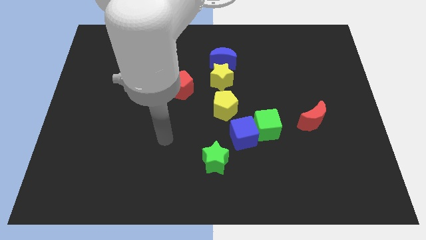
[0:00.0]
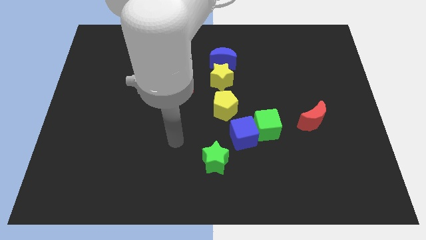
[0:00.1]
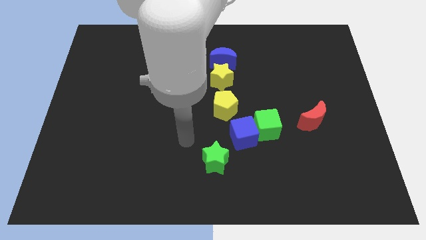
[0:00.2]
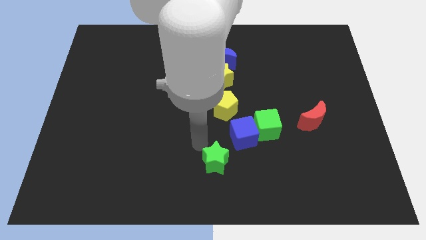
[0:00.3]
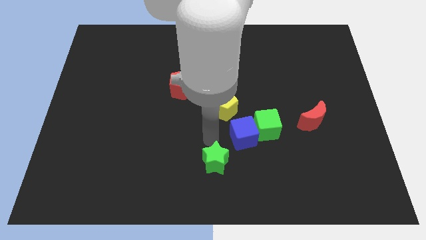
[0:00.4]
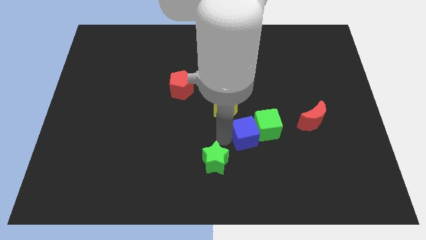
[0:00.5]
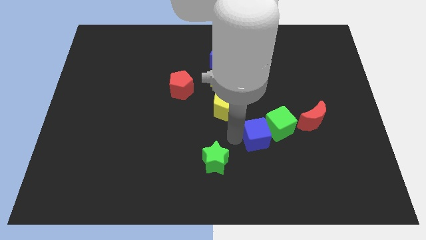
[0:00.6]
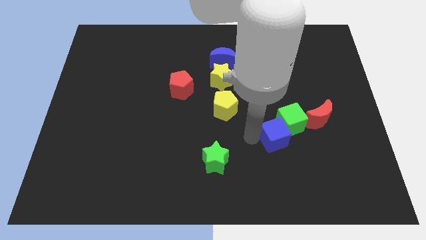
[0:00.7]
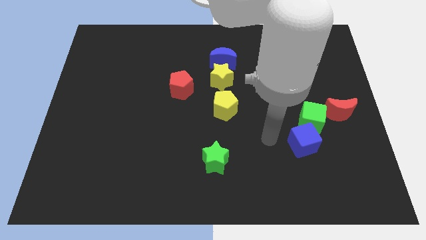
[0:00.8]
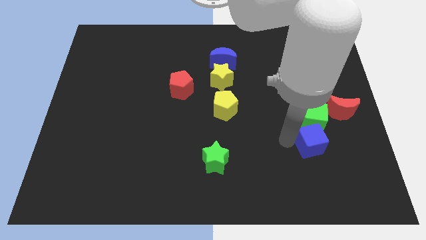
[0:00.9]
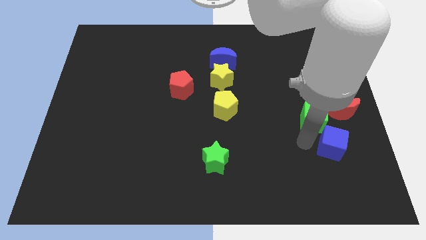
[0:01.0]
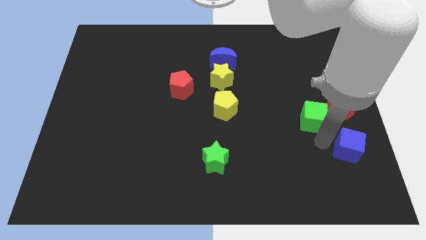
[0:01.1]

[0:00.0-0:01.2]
pull the green cube apart from the blue cube

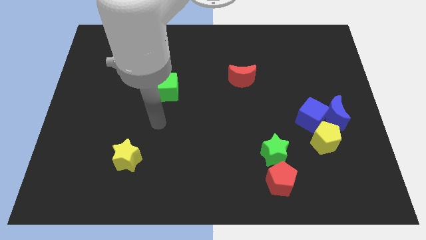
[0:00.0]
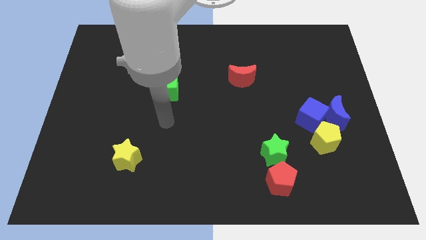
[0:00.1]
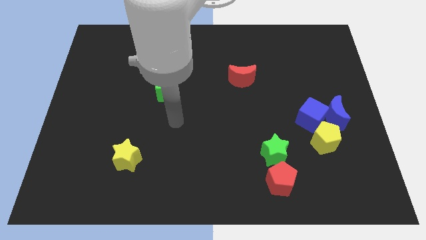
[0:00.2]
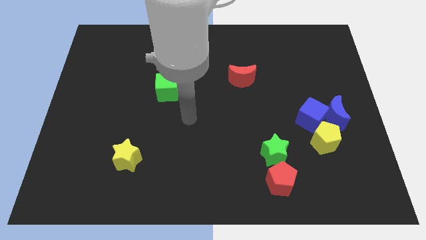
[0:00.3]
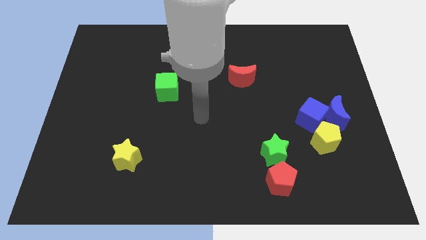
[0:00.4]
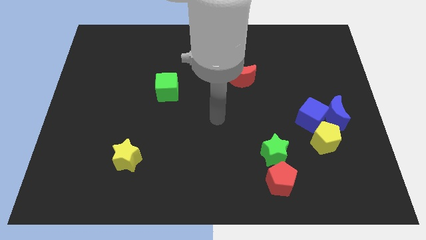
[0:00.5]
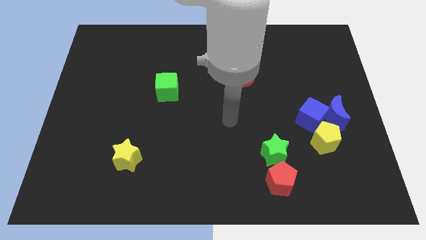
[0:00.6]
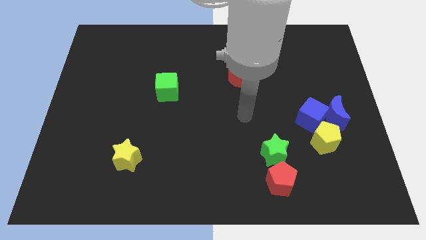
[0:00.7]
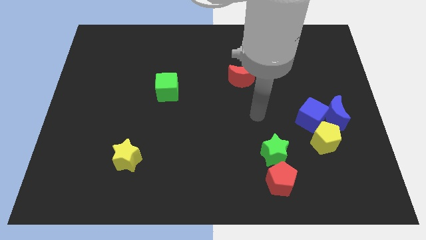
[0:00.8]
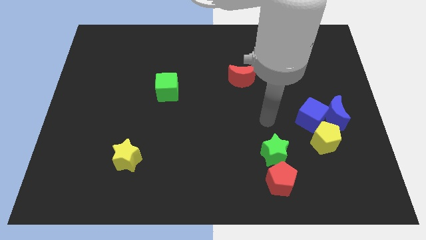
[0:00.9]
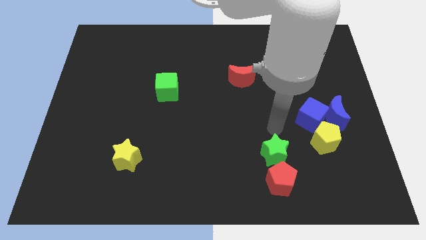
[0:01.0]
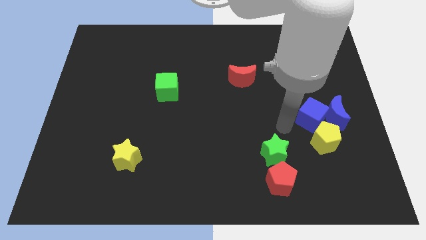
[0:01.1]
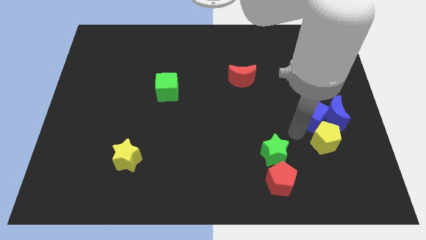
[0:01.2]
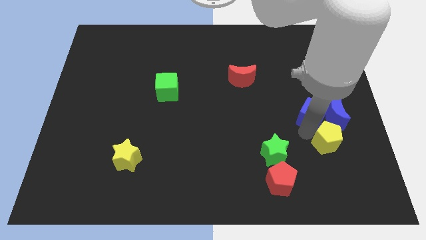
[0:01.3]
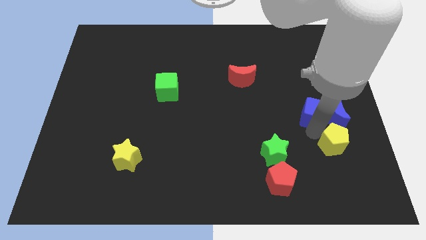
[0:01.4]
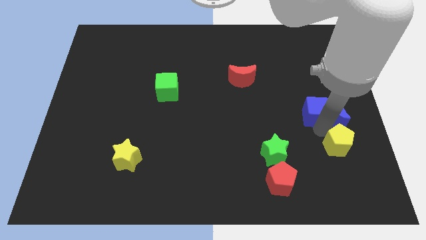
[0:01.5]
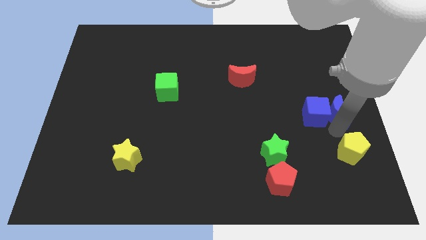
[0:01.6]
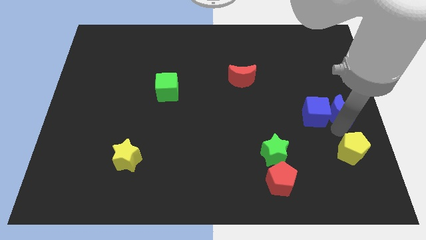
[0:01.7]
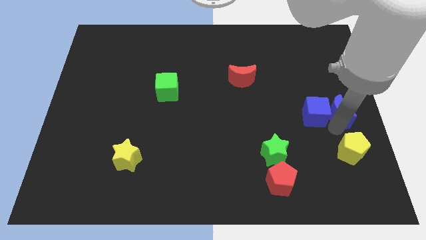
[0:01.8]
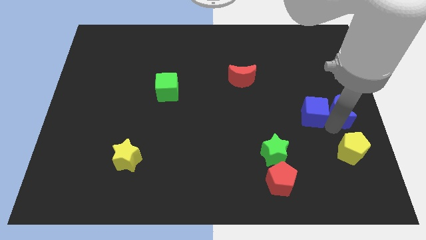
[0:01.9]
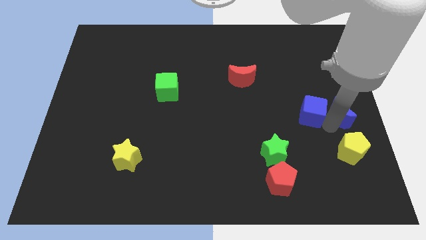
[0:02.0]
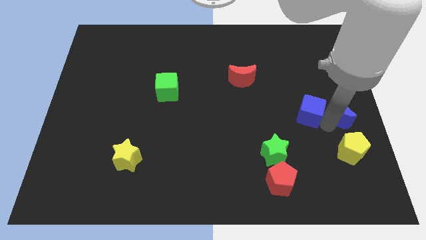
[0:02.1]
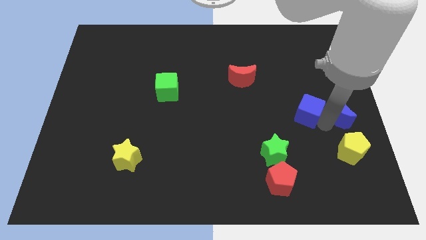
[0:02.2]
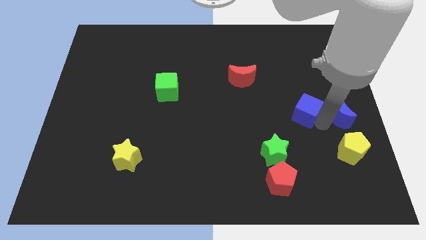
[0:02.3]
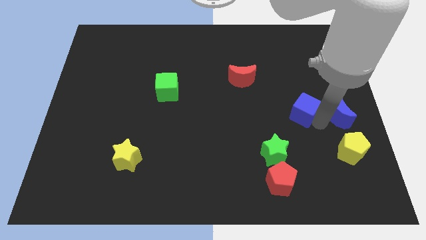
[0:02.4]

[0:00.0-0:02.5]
separate the blue cube from the blue moon and yellow pentagon

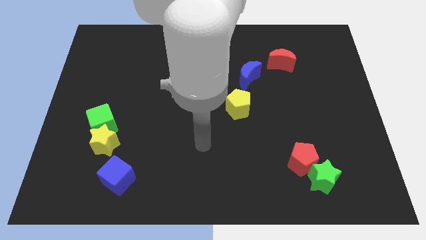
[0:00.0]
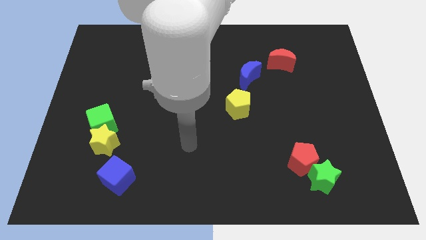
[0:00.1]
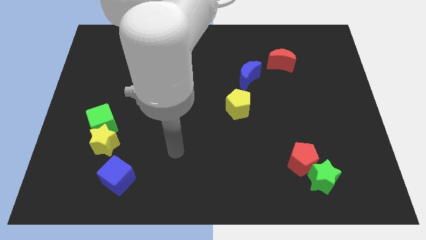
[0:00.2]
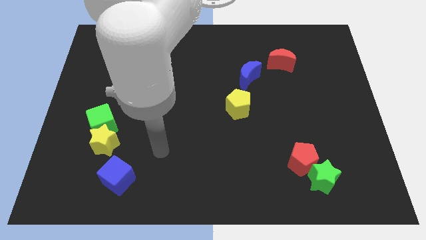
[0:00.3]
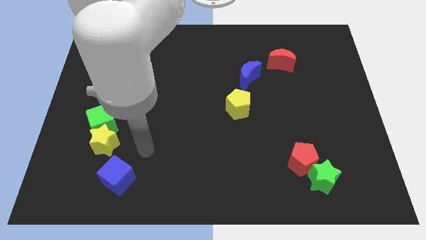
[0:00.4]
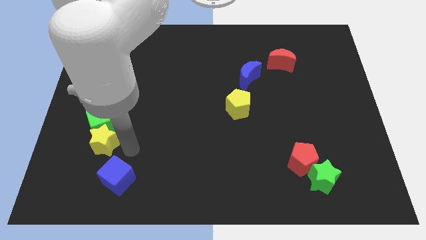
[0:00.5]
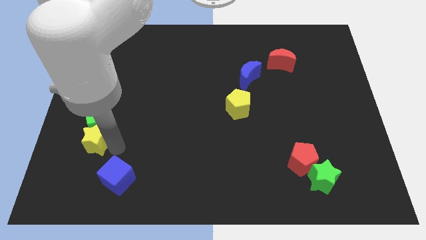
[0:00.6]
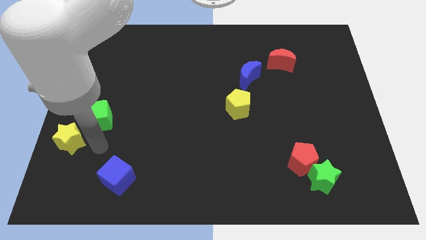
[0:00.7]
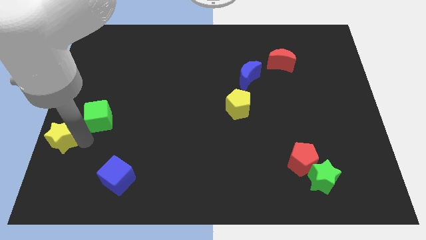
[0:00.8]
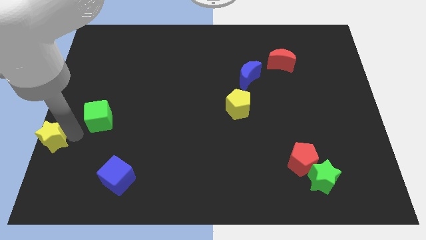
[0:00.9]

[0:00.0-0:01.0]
separate the green cube from the yellow star

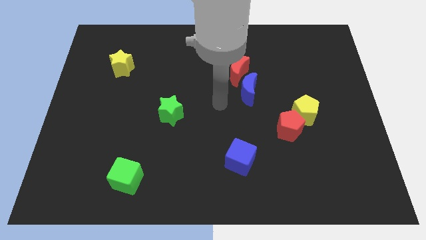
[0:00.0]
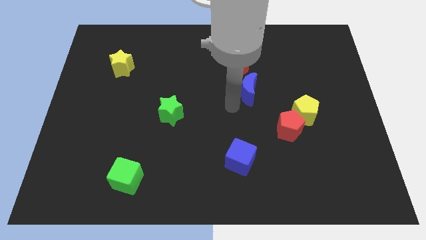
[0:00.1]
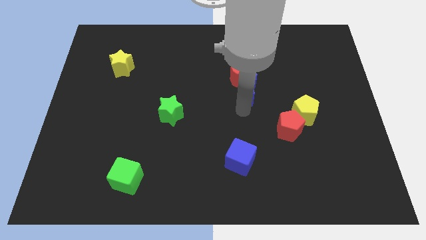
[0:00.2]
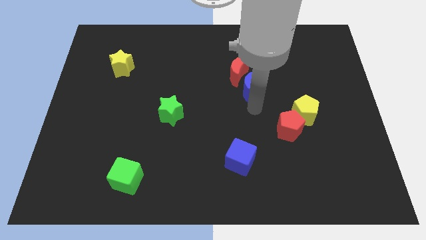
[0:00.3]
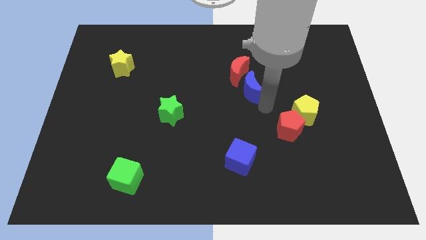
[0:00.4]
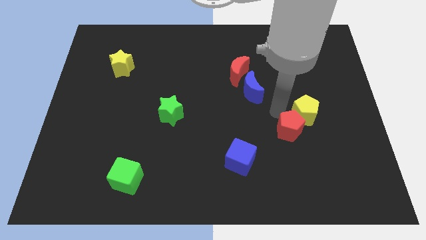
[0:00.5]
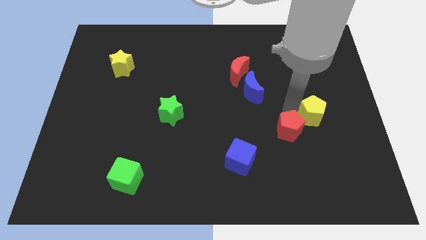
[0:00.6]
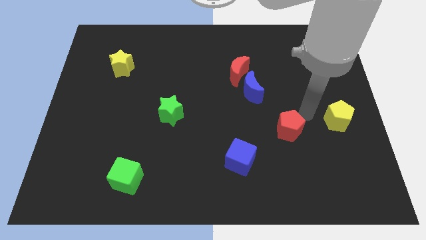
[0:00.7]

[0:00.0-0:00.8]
move the red pentagon away from the yellow pentagon

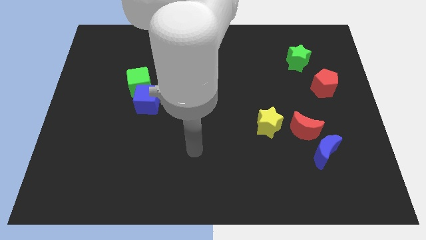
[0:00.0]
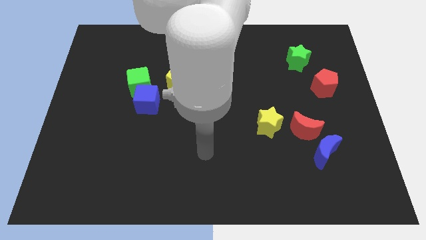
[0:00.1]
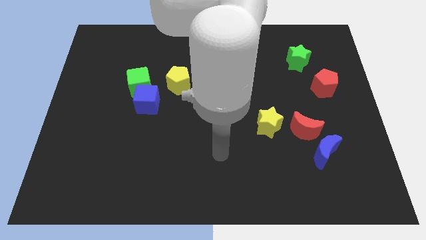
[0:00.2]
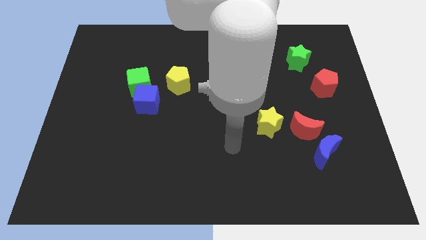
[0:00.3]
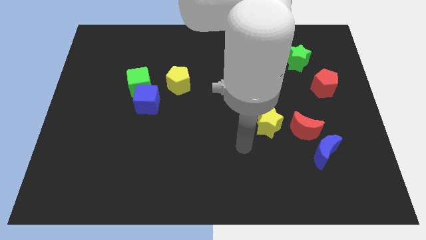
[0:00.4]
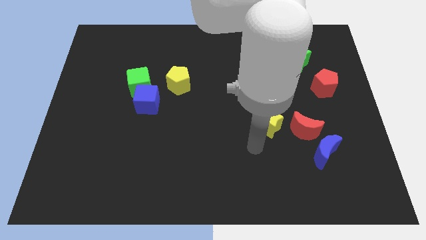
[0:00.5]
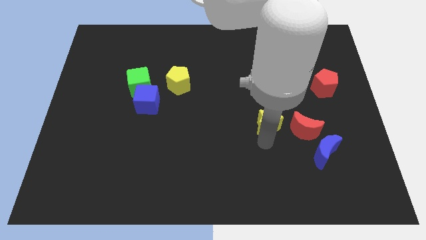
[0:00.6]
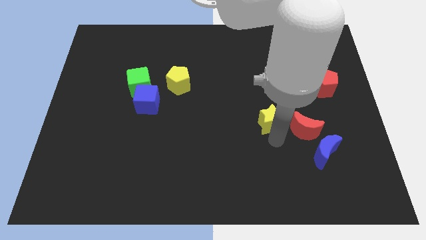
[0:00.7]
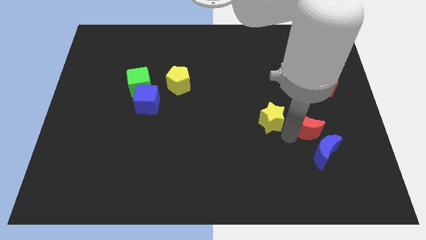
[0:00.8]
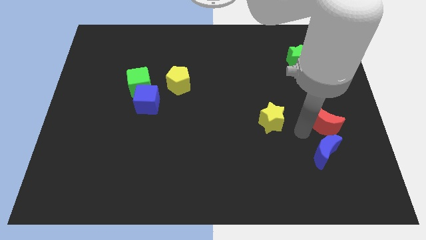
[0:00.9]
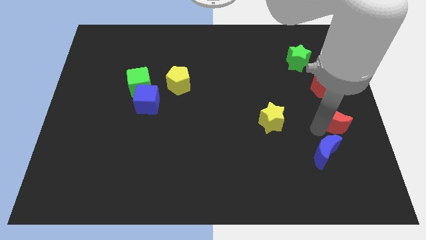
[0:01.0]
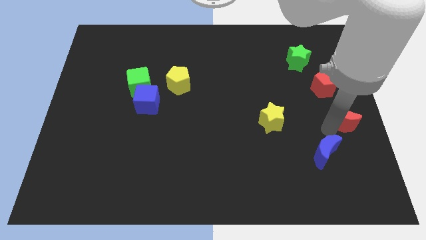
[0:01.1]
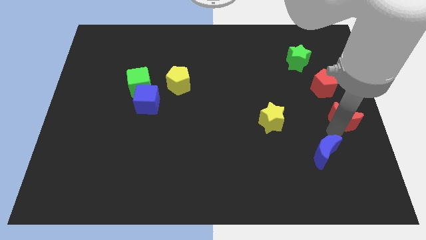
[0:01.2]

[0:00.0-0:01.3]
pull the blue moon apart from the red moon

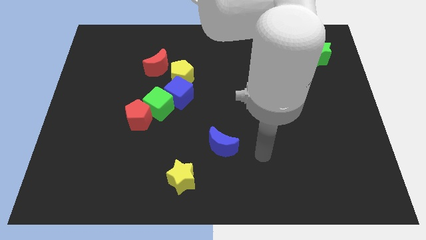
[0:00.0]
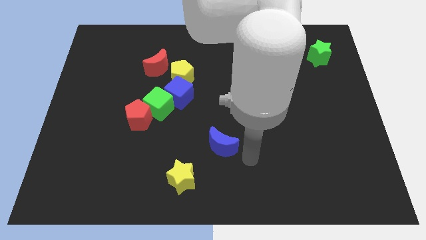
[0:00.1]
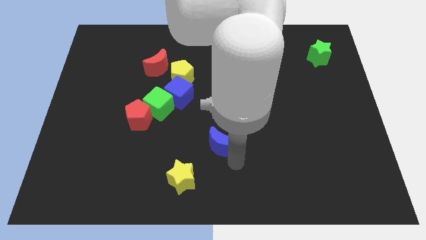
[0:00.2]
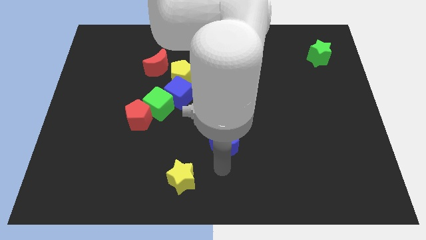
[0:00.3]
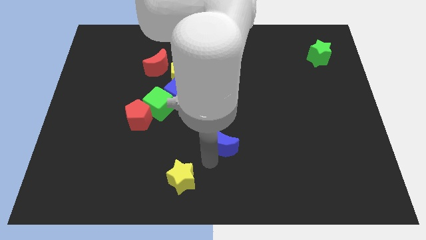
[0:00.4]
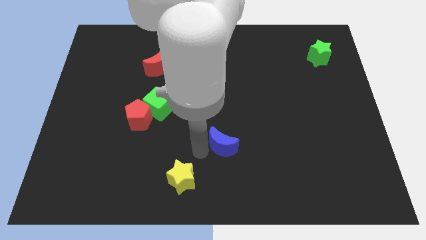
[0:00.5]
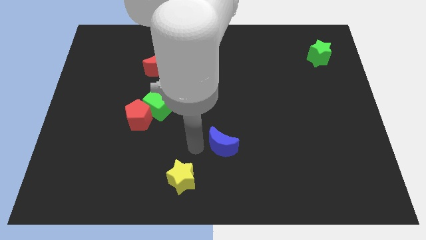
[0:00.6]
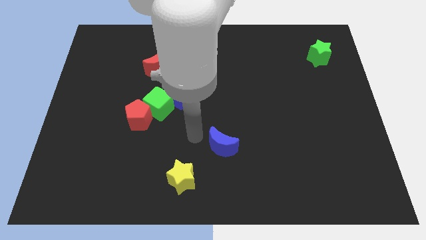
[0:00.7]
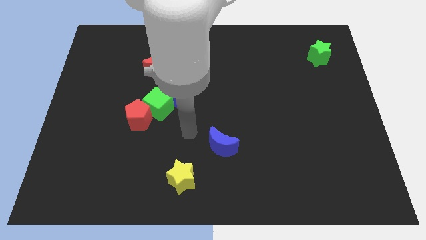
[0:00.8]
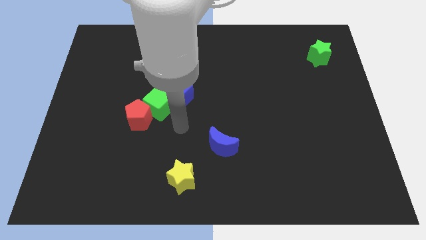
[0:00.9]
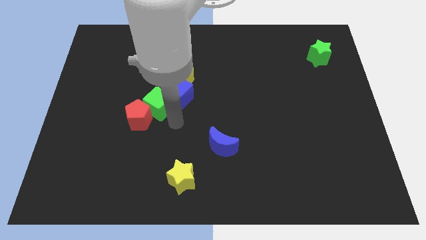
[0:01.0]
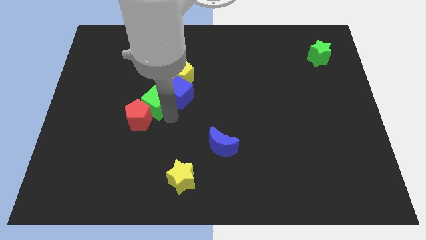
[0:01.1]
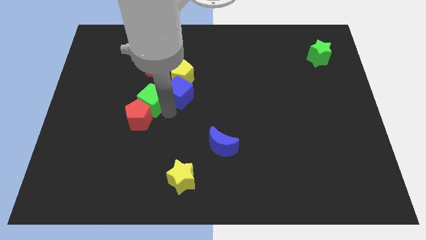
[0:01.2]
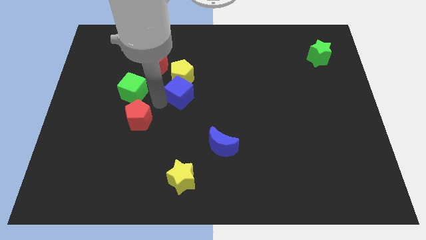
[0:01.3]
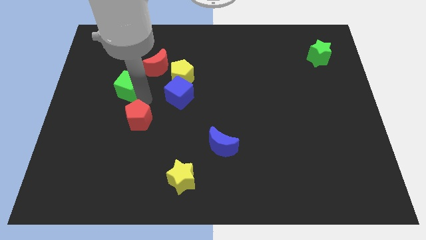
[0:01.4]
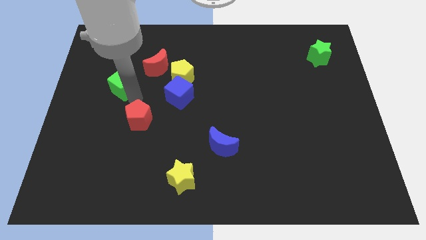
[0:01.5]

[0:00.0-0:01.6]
pull the red pentagon apart from the green cube

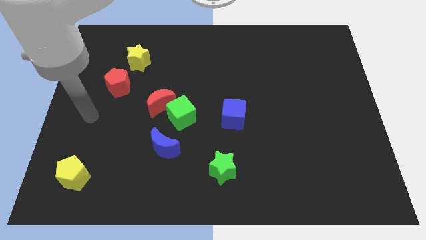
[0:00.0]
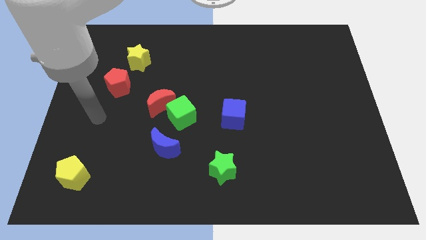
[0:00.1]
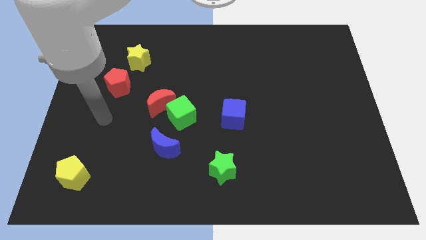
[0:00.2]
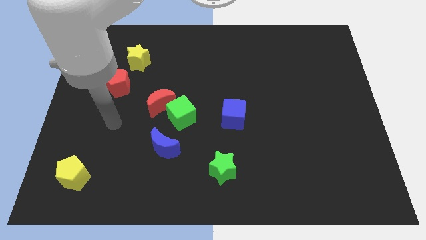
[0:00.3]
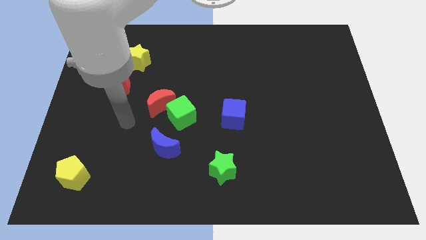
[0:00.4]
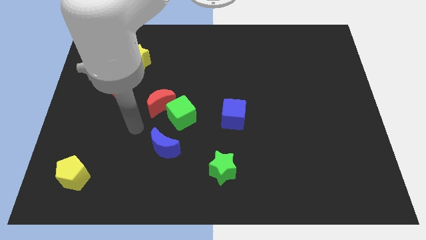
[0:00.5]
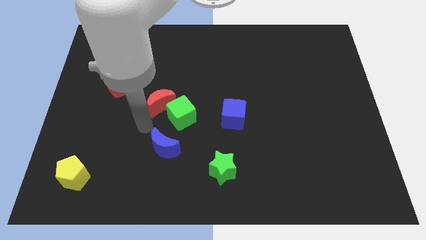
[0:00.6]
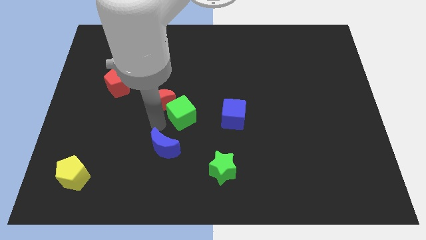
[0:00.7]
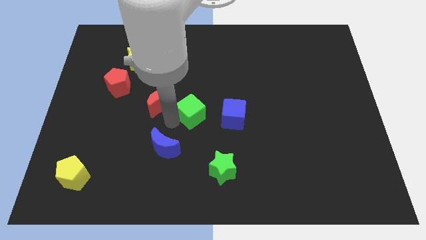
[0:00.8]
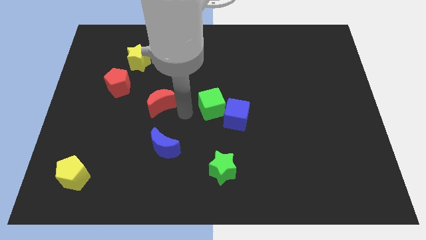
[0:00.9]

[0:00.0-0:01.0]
separate the red moon from the green cube
